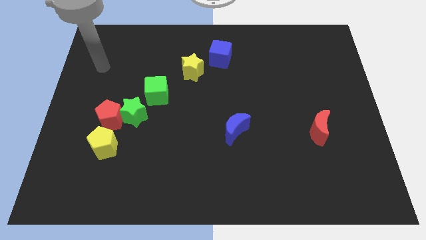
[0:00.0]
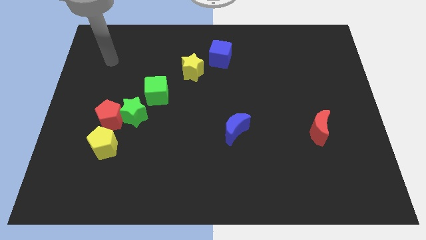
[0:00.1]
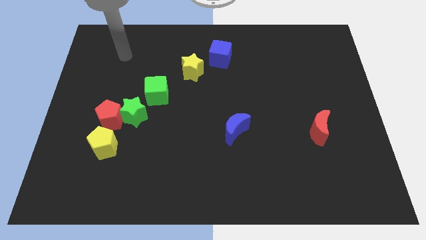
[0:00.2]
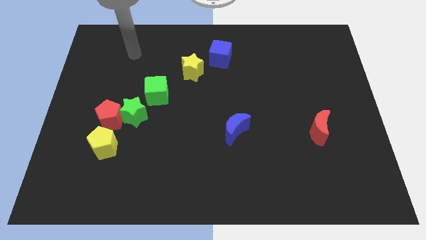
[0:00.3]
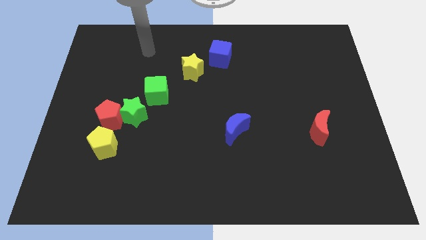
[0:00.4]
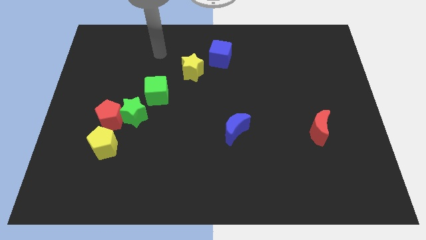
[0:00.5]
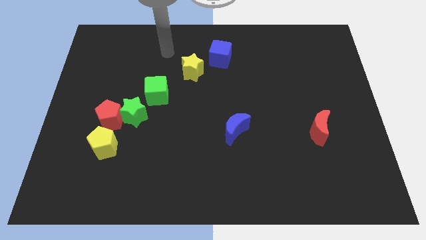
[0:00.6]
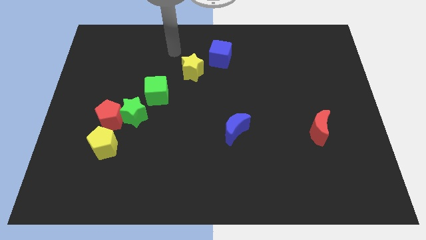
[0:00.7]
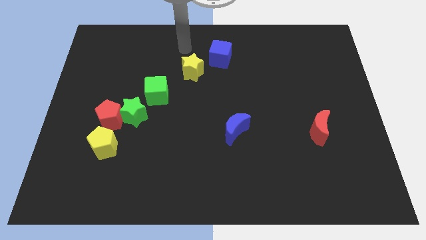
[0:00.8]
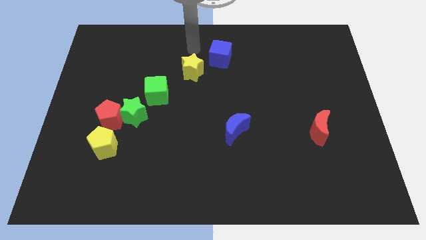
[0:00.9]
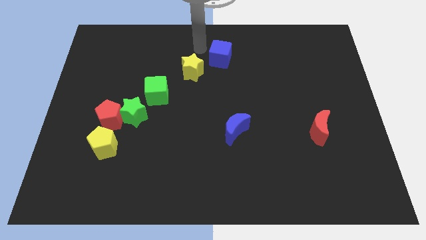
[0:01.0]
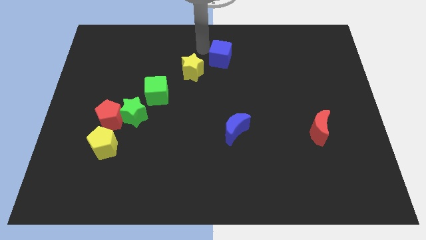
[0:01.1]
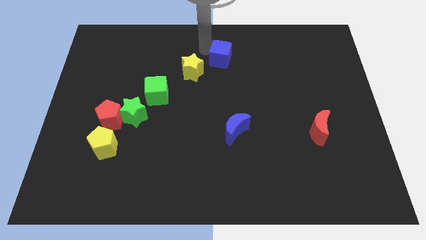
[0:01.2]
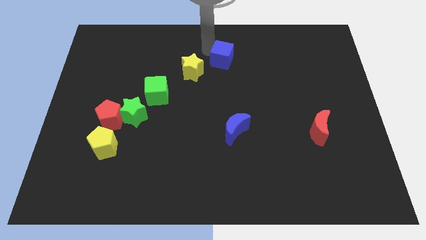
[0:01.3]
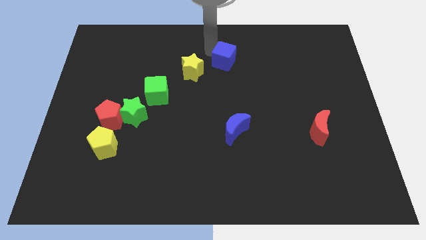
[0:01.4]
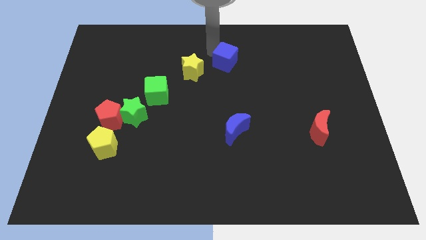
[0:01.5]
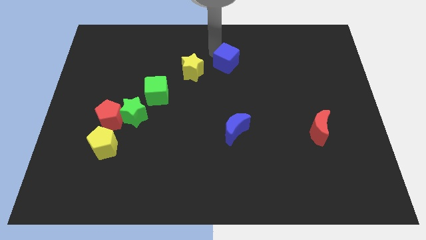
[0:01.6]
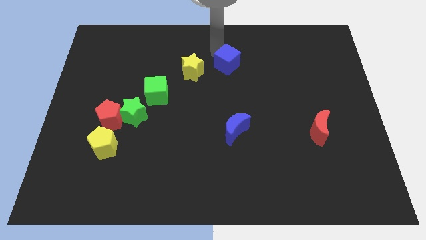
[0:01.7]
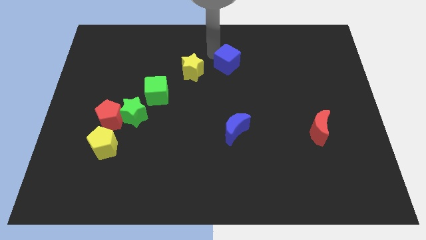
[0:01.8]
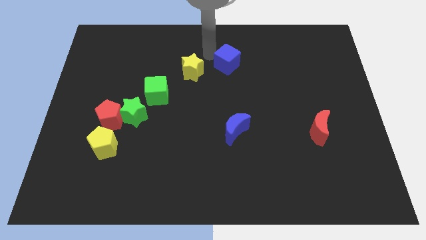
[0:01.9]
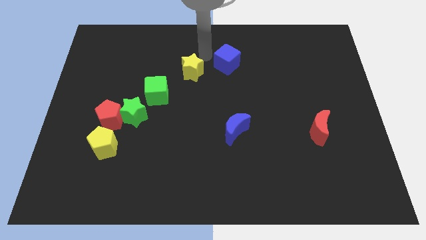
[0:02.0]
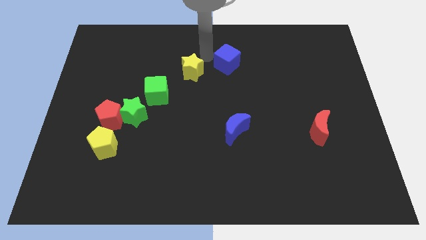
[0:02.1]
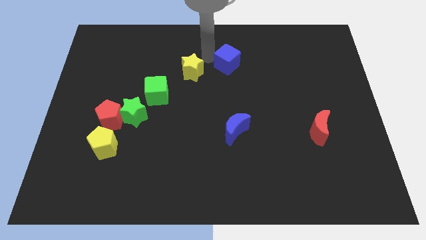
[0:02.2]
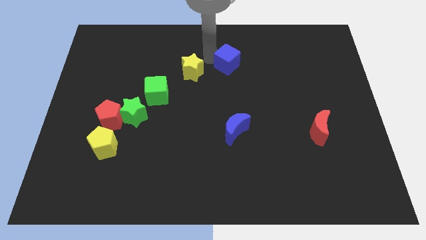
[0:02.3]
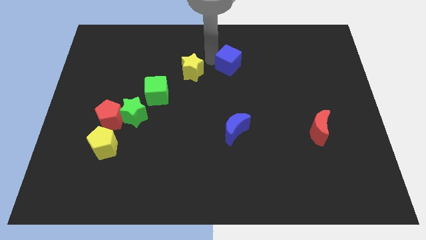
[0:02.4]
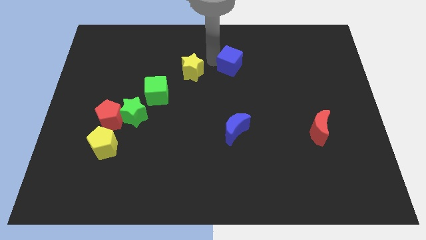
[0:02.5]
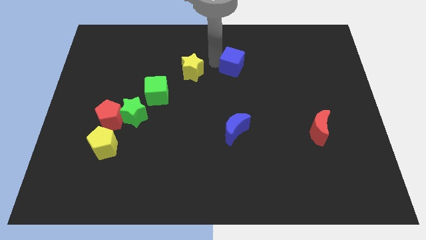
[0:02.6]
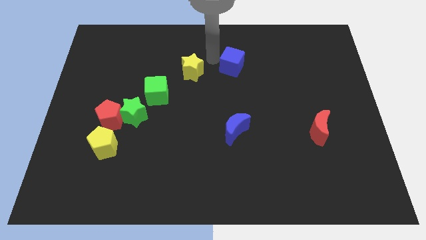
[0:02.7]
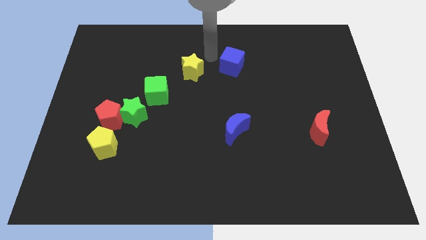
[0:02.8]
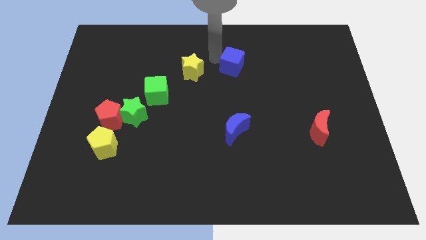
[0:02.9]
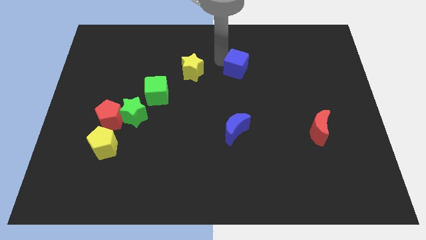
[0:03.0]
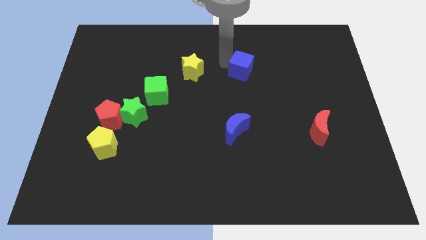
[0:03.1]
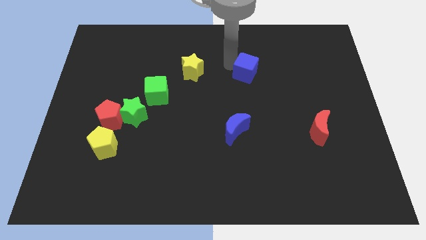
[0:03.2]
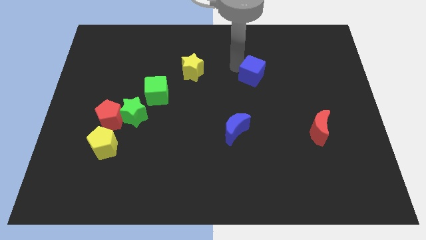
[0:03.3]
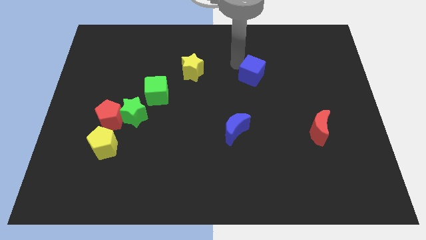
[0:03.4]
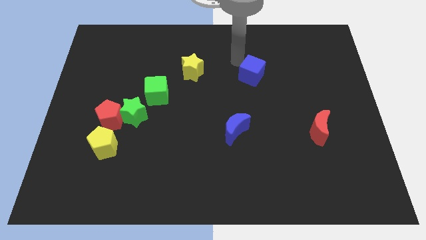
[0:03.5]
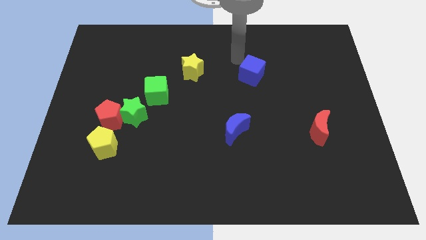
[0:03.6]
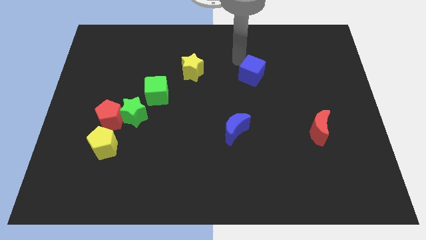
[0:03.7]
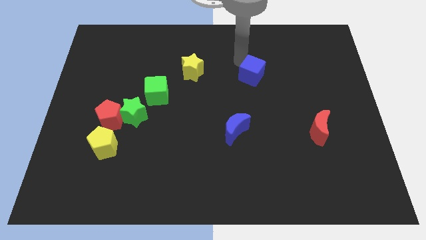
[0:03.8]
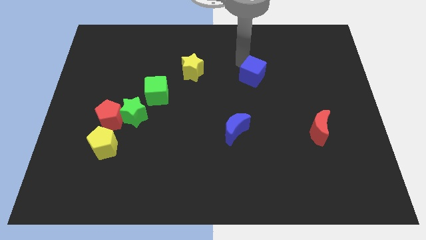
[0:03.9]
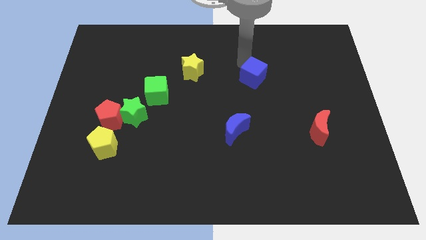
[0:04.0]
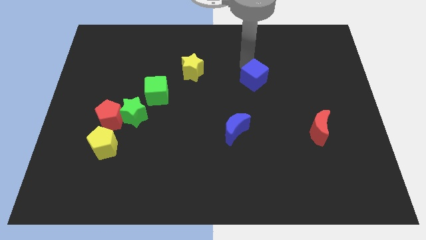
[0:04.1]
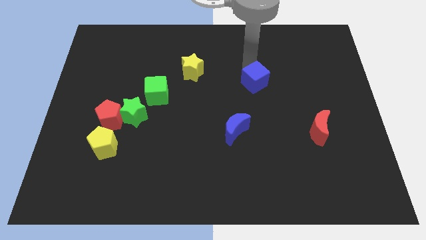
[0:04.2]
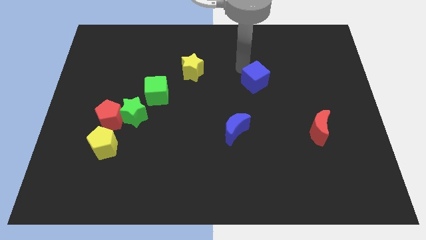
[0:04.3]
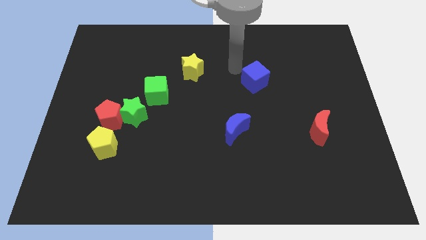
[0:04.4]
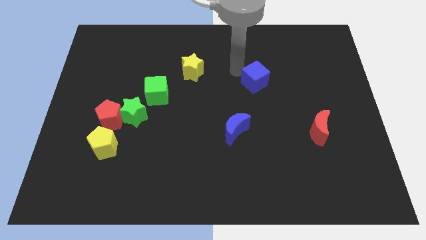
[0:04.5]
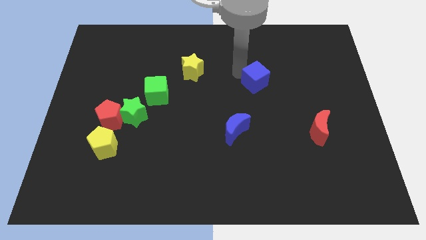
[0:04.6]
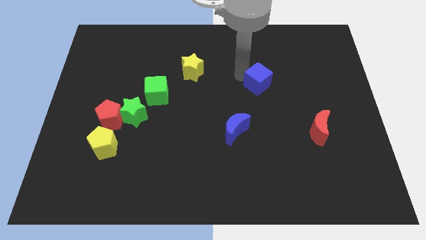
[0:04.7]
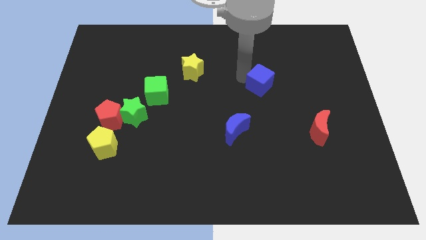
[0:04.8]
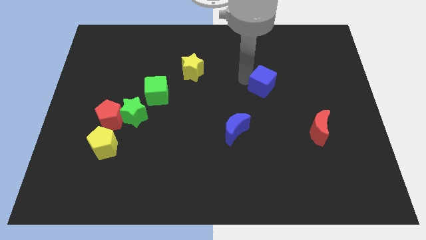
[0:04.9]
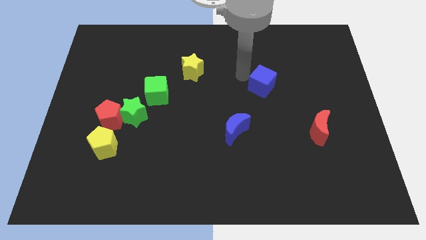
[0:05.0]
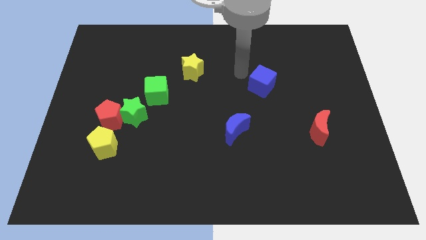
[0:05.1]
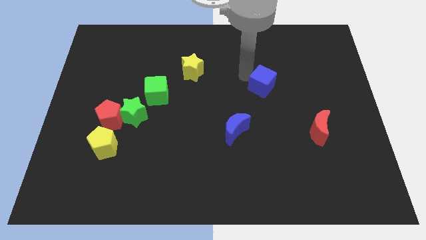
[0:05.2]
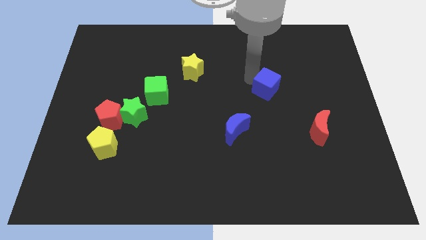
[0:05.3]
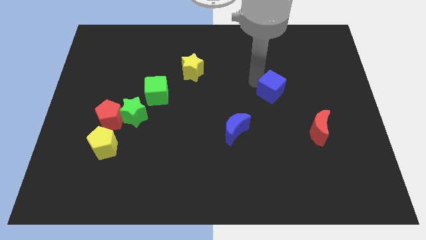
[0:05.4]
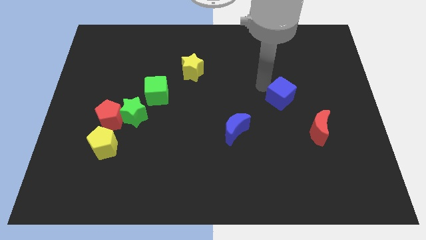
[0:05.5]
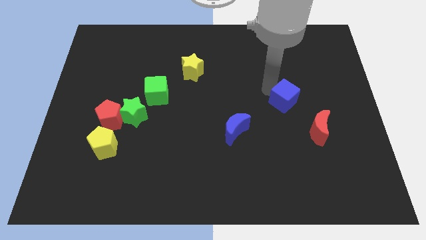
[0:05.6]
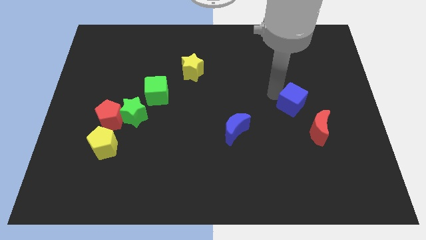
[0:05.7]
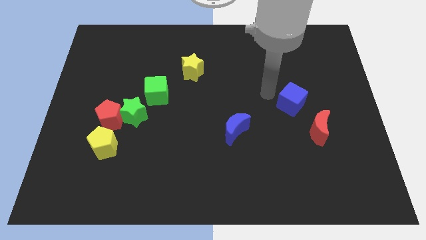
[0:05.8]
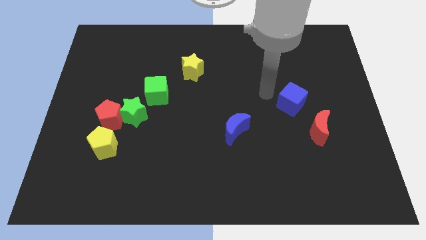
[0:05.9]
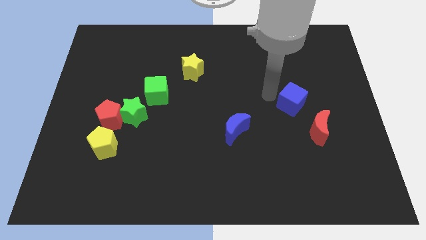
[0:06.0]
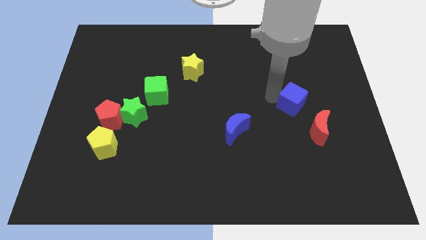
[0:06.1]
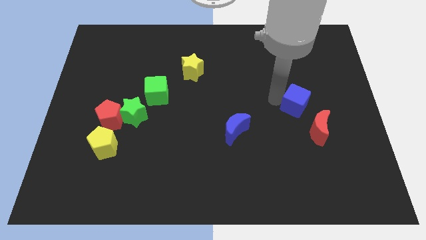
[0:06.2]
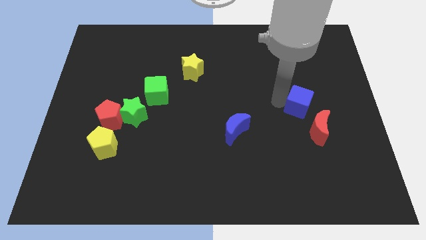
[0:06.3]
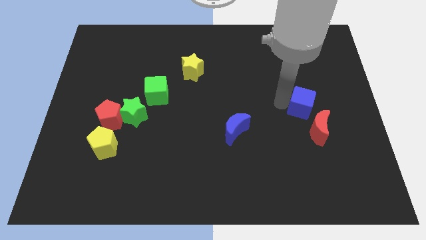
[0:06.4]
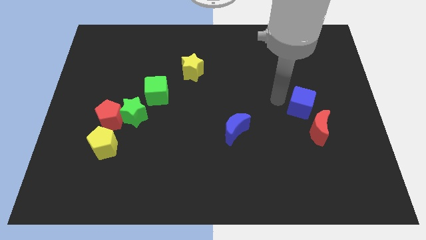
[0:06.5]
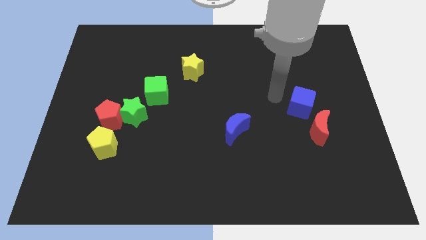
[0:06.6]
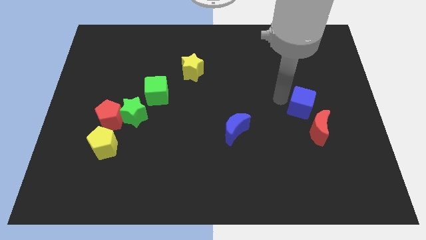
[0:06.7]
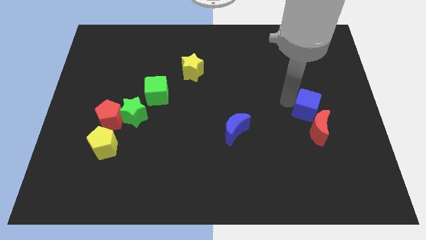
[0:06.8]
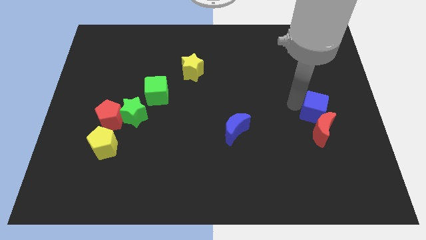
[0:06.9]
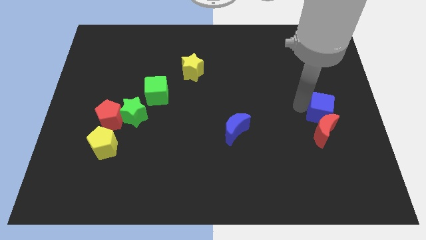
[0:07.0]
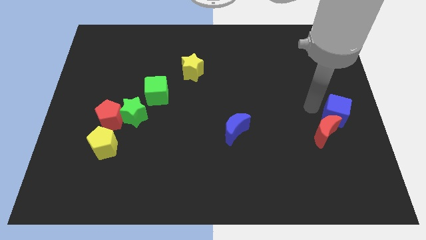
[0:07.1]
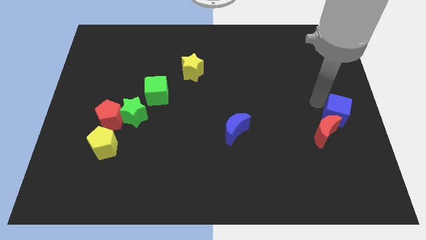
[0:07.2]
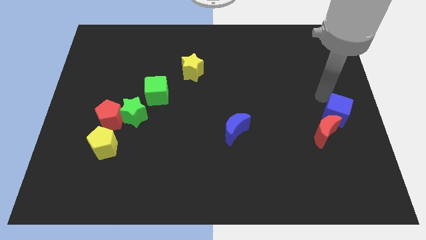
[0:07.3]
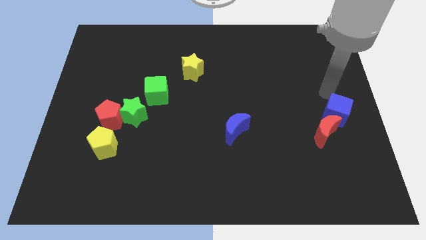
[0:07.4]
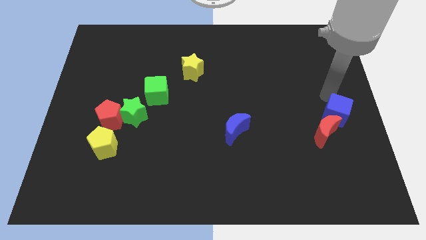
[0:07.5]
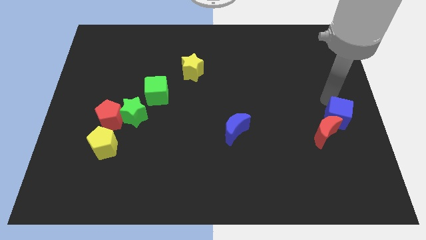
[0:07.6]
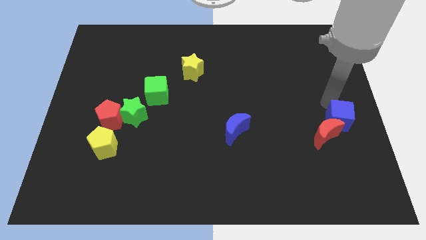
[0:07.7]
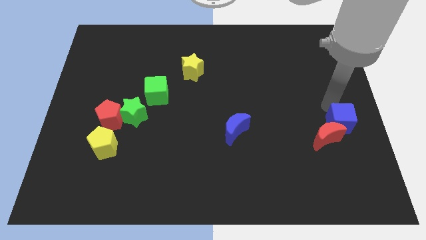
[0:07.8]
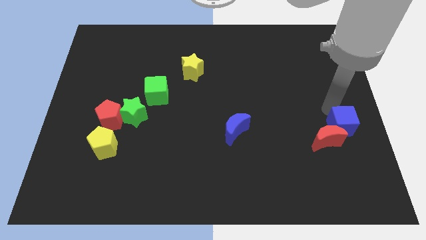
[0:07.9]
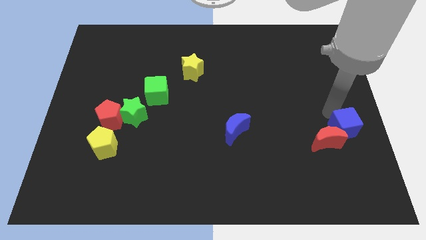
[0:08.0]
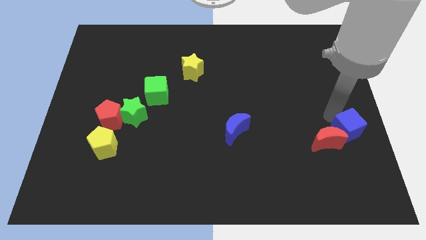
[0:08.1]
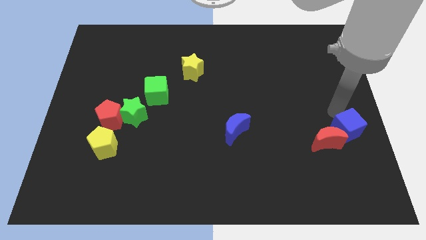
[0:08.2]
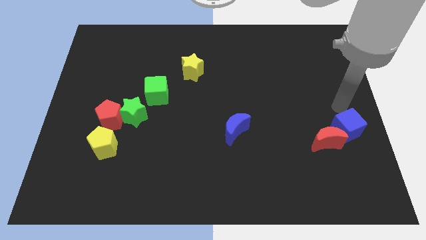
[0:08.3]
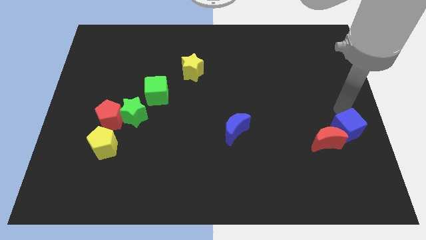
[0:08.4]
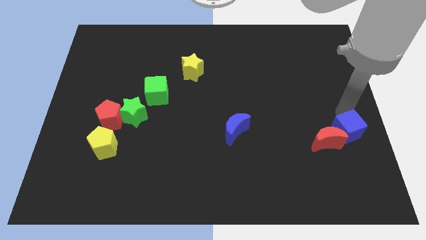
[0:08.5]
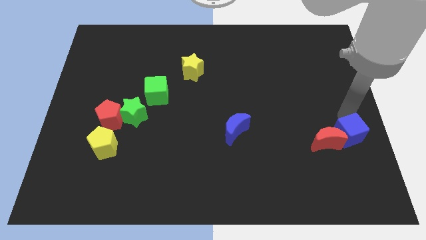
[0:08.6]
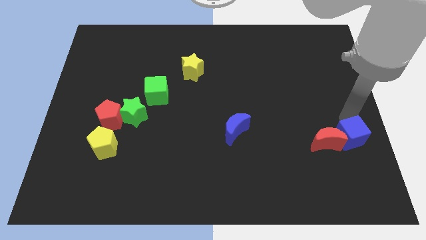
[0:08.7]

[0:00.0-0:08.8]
move the blue cube to the bottom right side of the red moon
